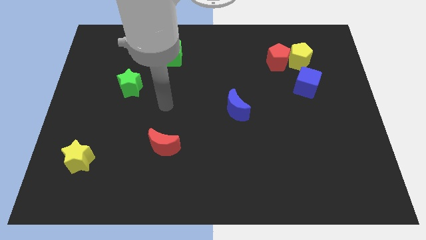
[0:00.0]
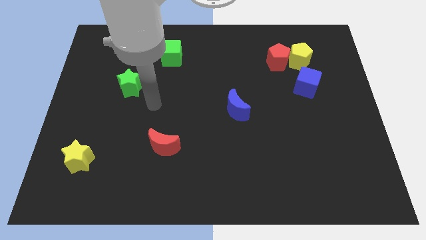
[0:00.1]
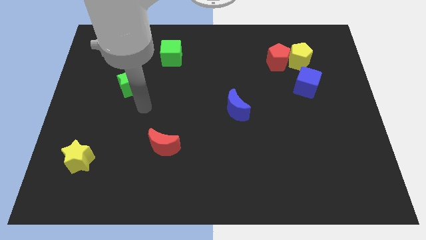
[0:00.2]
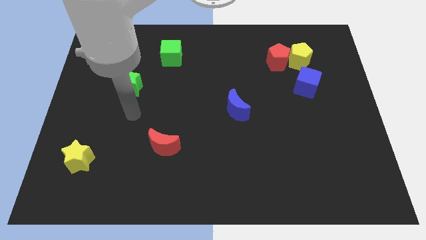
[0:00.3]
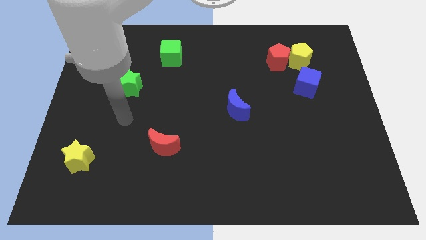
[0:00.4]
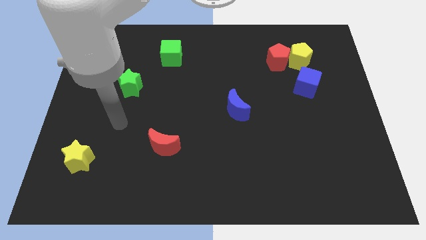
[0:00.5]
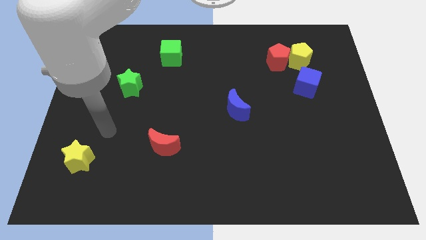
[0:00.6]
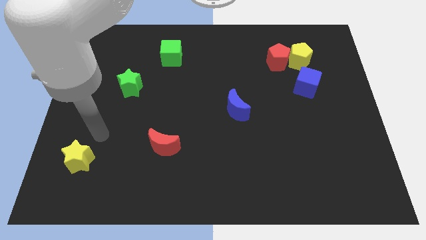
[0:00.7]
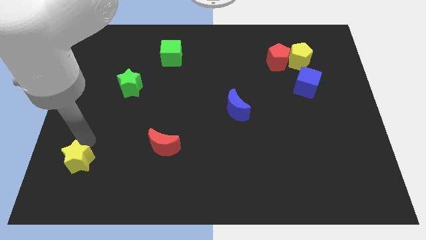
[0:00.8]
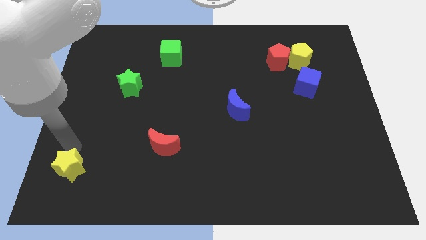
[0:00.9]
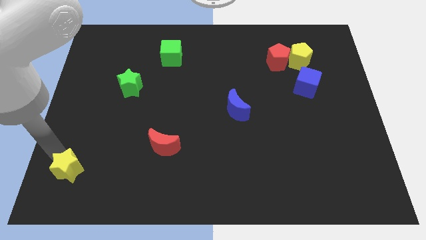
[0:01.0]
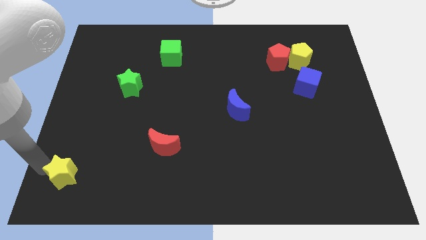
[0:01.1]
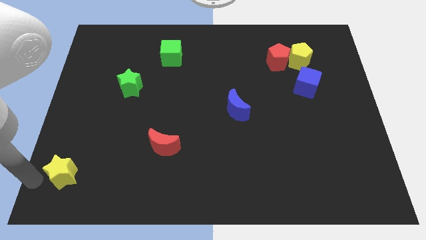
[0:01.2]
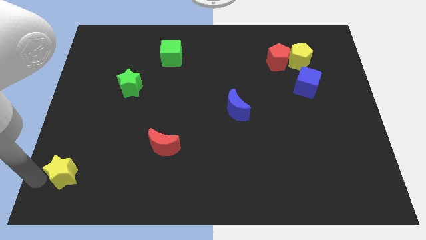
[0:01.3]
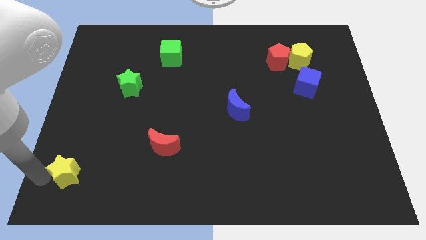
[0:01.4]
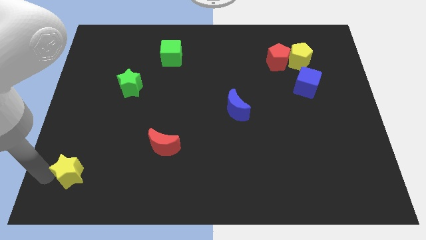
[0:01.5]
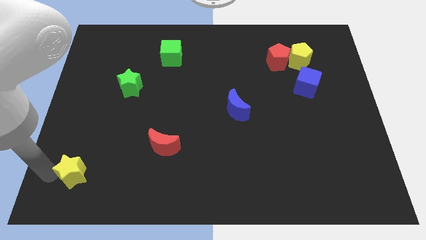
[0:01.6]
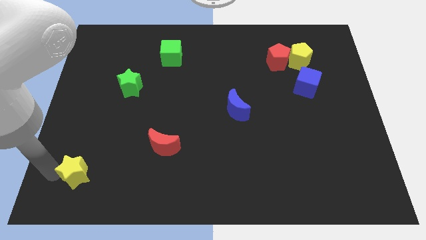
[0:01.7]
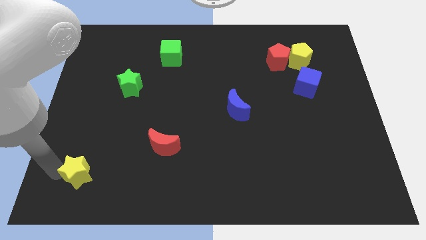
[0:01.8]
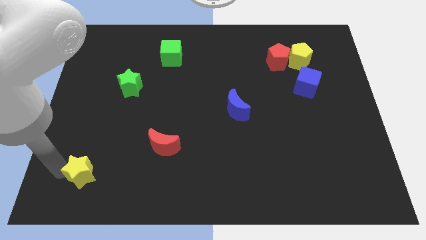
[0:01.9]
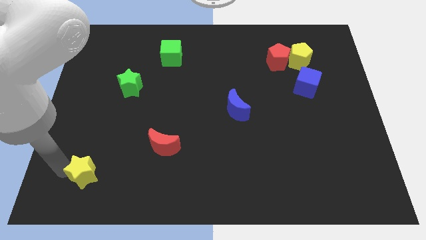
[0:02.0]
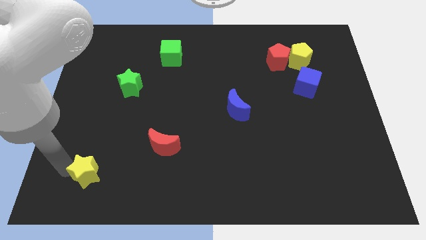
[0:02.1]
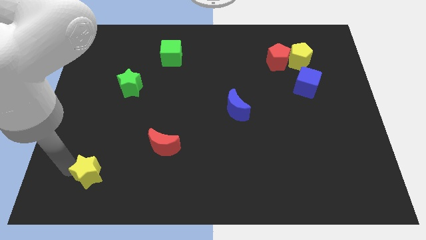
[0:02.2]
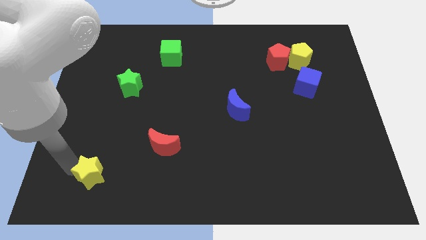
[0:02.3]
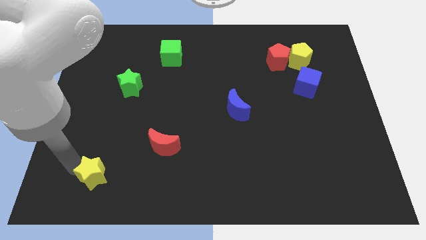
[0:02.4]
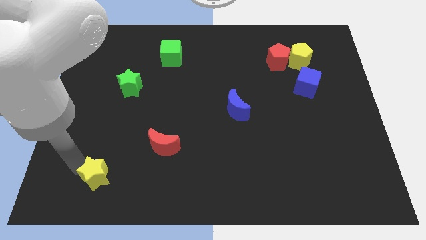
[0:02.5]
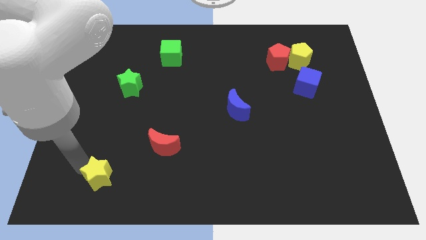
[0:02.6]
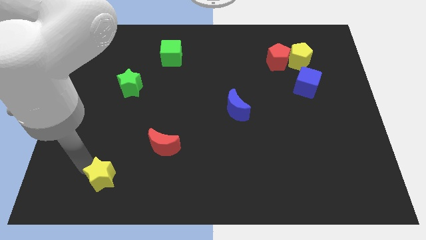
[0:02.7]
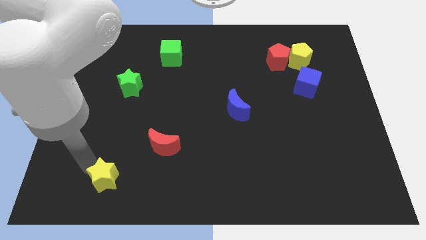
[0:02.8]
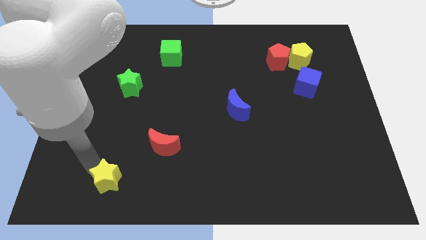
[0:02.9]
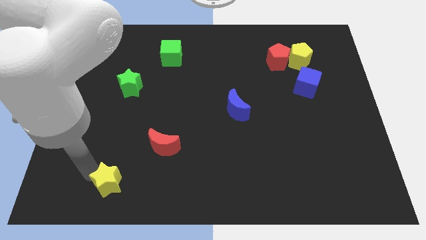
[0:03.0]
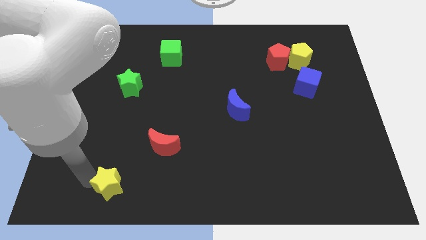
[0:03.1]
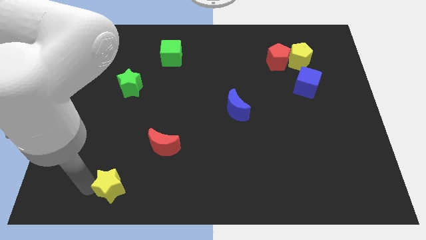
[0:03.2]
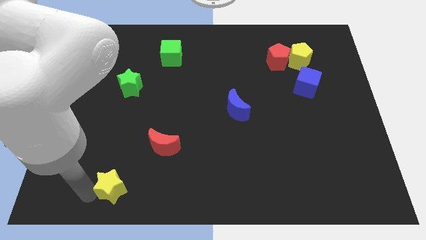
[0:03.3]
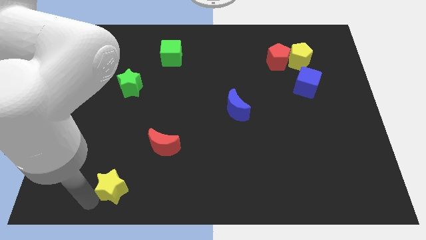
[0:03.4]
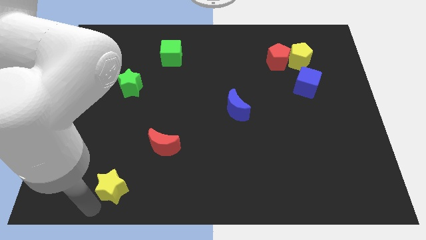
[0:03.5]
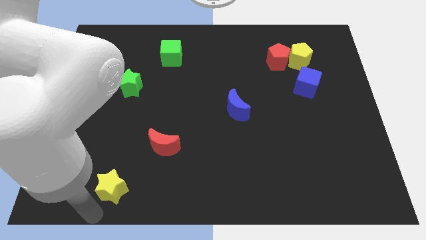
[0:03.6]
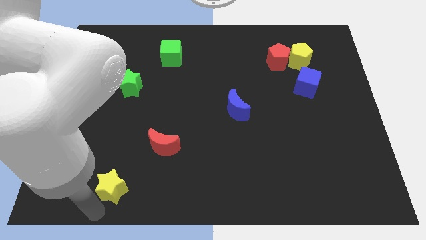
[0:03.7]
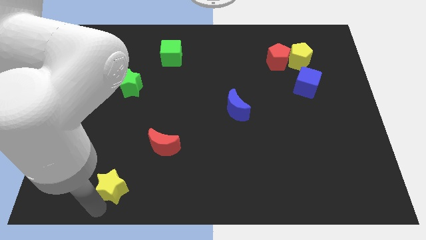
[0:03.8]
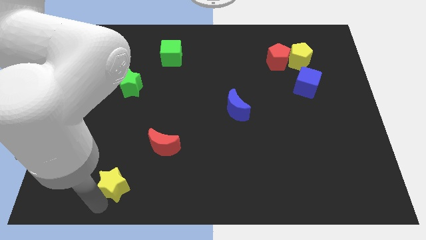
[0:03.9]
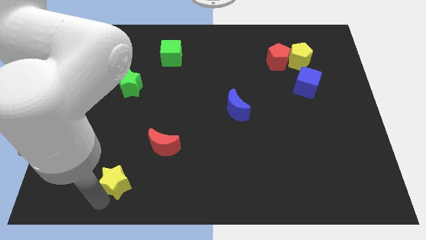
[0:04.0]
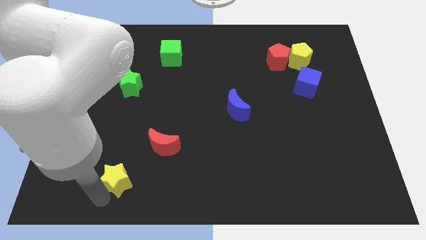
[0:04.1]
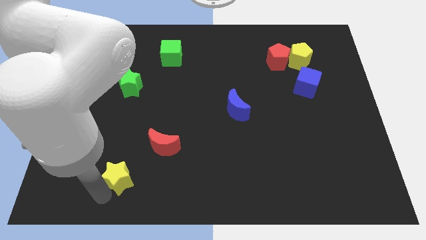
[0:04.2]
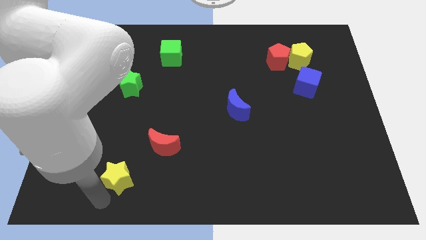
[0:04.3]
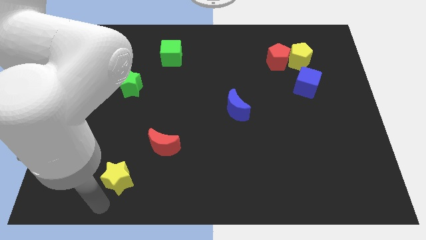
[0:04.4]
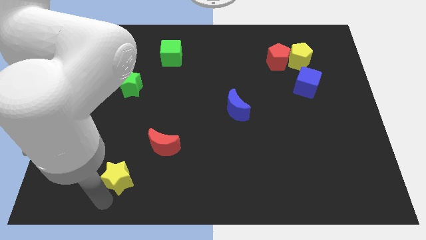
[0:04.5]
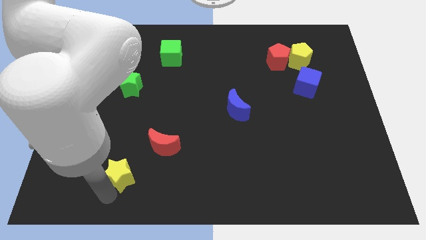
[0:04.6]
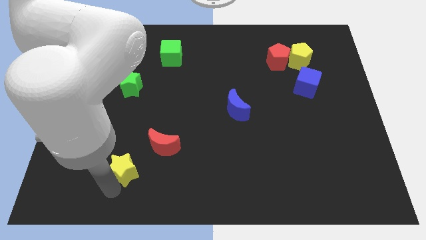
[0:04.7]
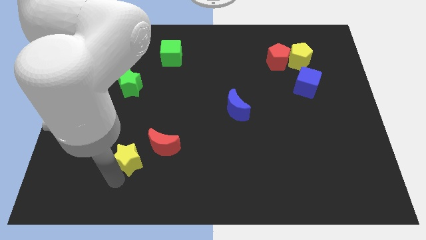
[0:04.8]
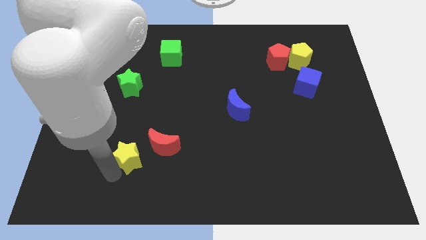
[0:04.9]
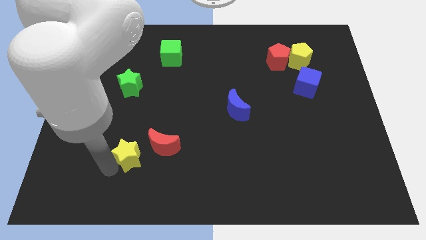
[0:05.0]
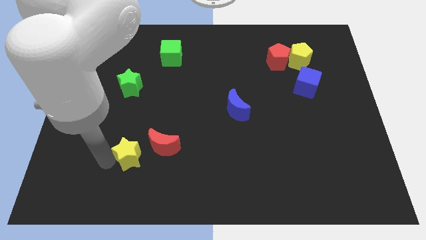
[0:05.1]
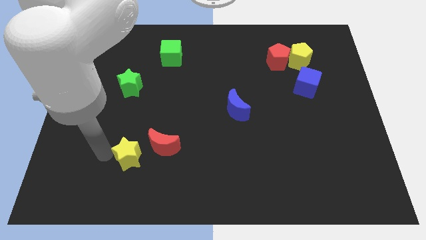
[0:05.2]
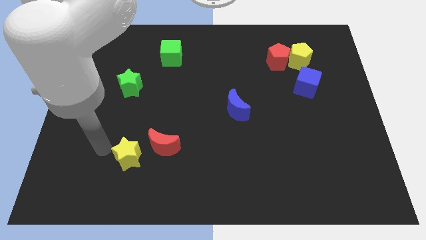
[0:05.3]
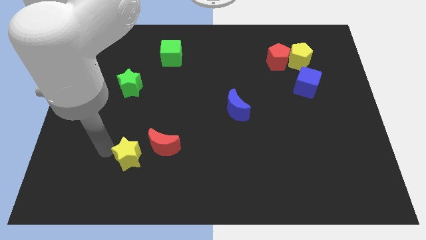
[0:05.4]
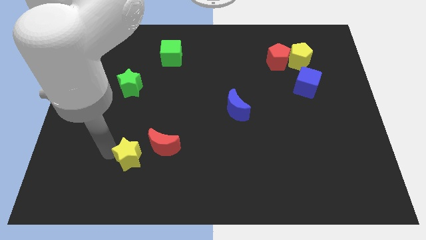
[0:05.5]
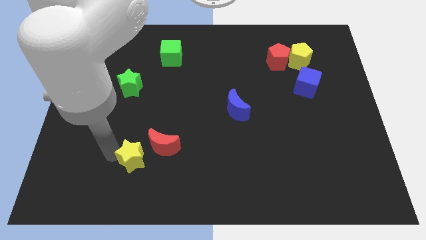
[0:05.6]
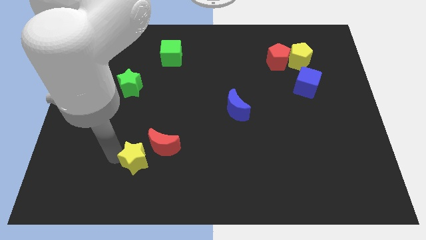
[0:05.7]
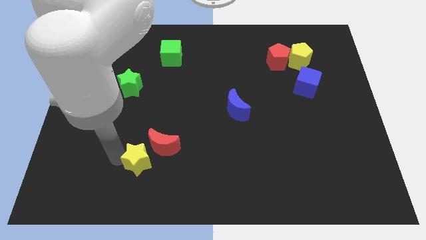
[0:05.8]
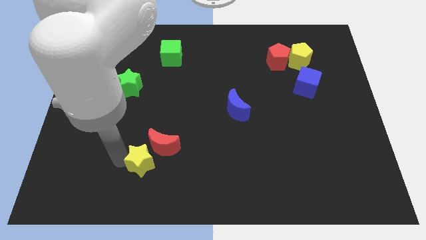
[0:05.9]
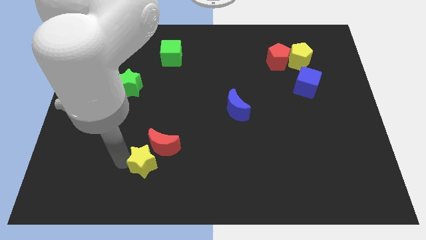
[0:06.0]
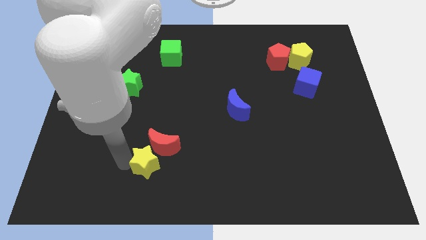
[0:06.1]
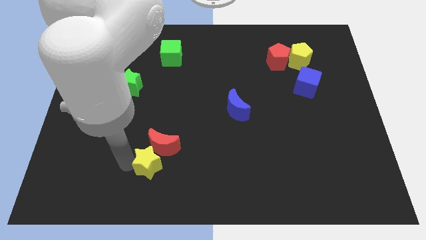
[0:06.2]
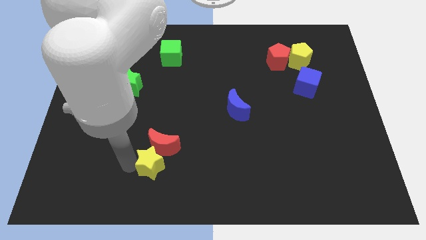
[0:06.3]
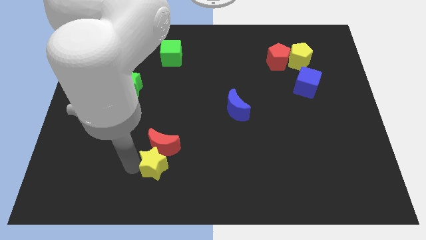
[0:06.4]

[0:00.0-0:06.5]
move the yellow star to the bottom right side of the red moon

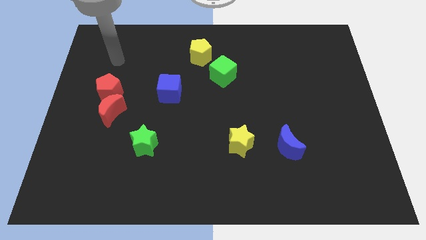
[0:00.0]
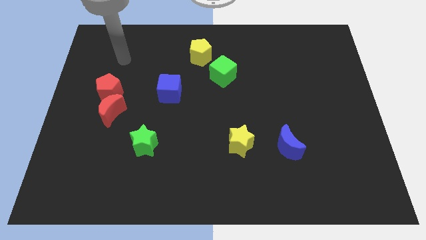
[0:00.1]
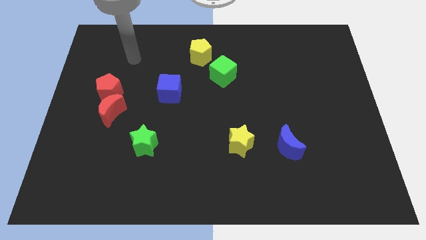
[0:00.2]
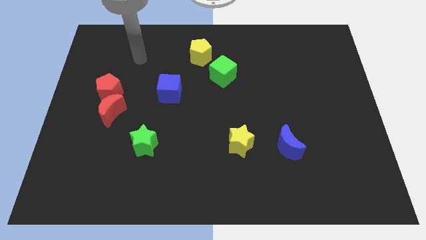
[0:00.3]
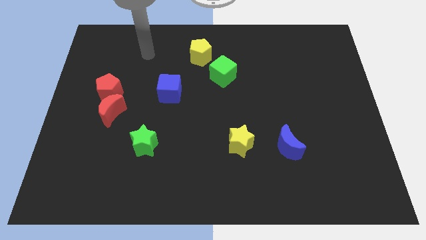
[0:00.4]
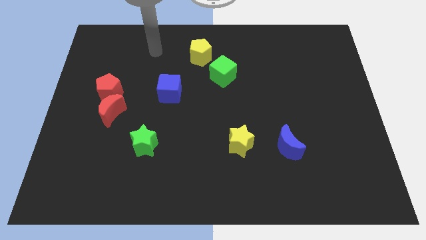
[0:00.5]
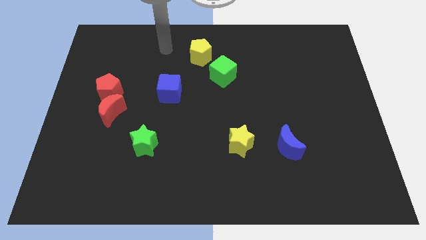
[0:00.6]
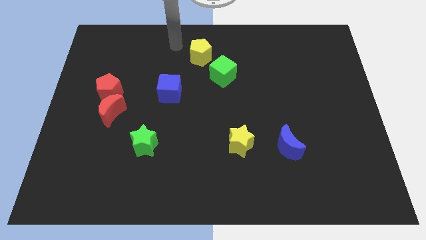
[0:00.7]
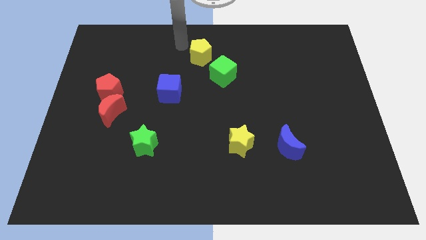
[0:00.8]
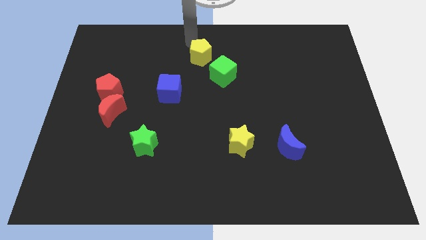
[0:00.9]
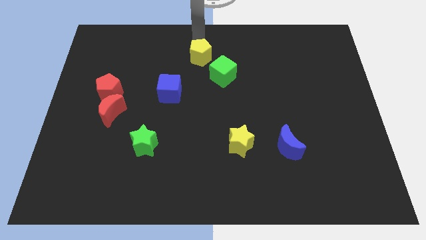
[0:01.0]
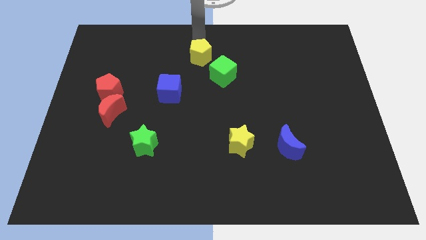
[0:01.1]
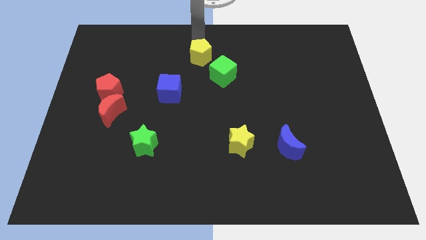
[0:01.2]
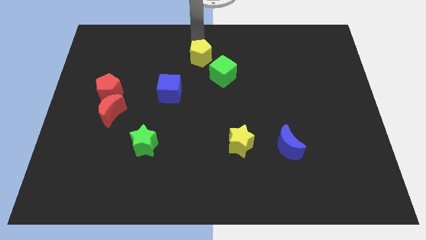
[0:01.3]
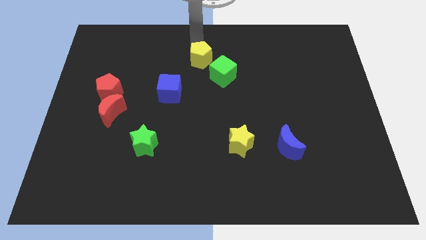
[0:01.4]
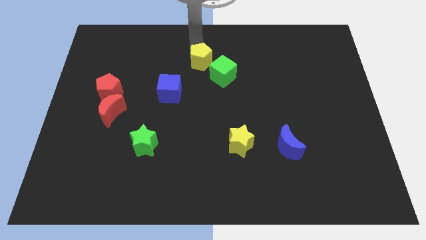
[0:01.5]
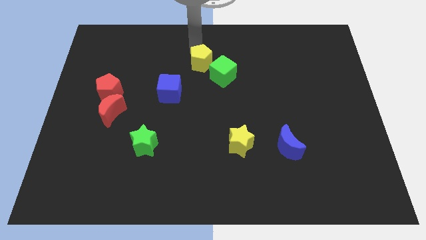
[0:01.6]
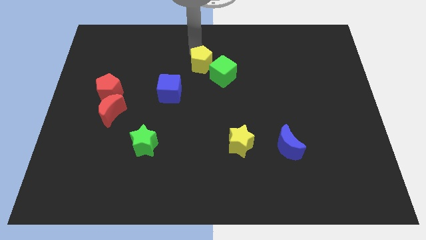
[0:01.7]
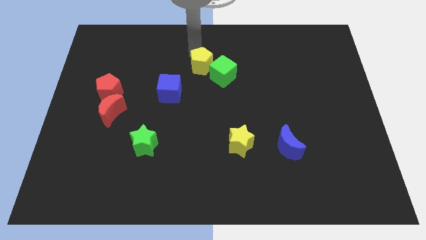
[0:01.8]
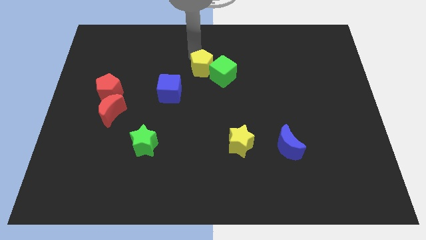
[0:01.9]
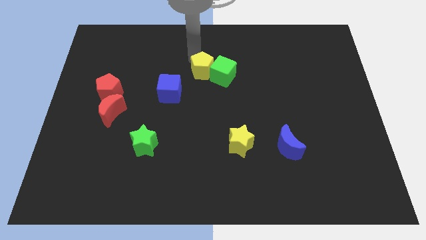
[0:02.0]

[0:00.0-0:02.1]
move the yellow pentagon to the bottom left side of the green cube
